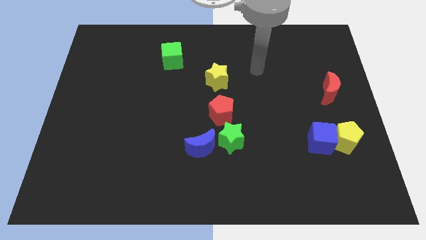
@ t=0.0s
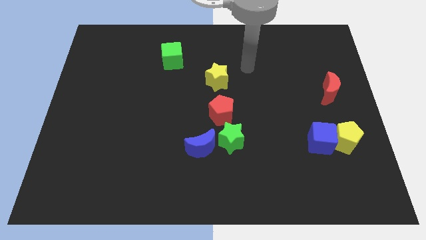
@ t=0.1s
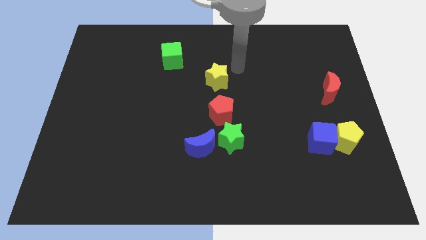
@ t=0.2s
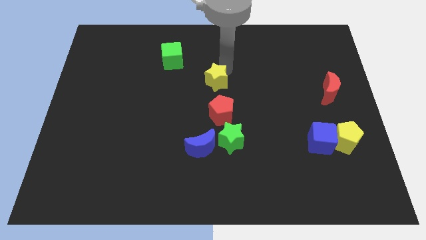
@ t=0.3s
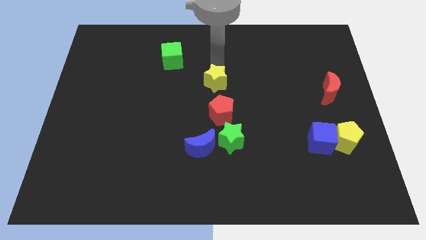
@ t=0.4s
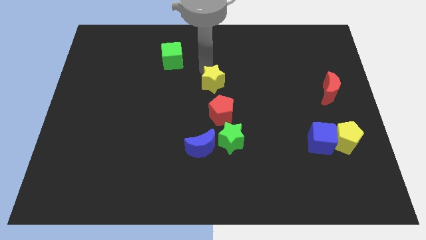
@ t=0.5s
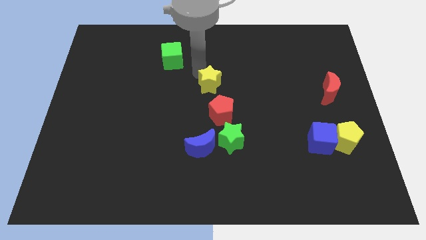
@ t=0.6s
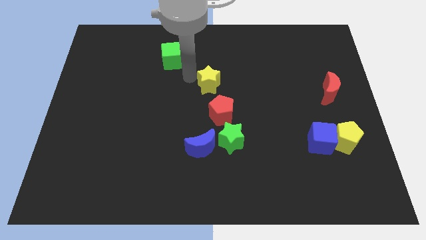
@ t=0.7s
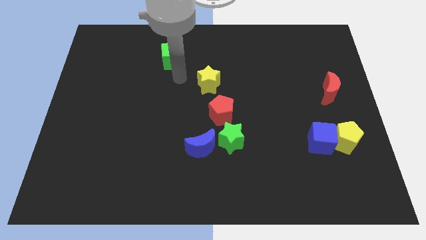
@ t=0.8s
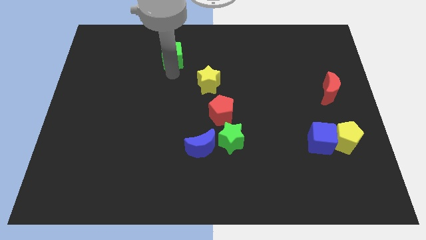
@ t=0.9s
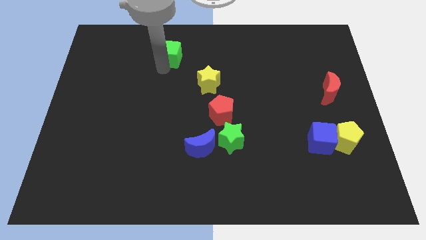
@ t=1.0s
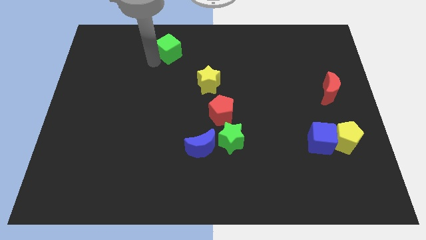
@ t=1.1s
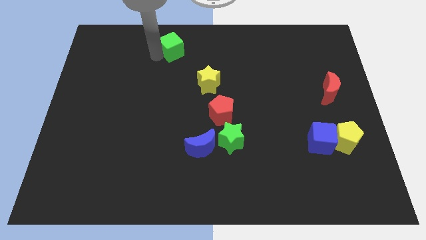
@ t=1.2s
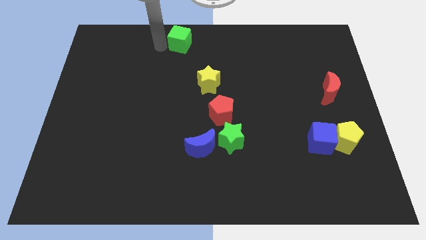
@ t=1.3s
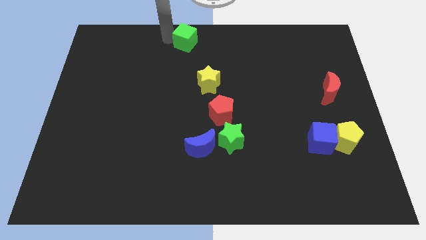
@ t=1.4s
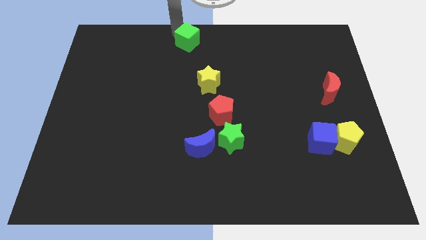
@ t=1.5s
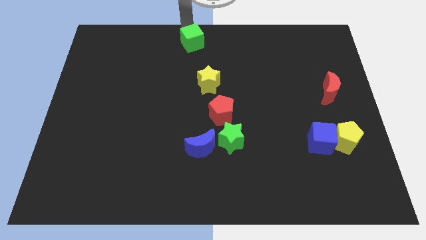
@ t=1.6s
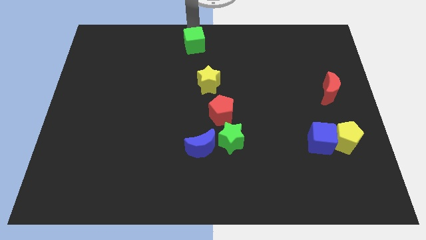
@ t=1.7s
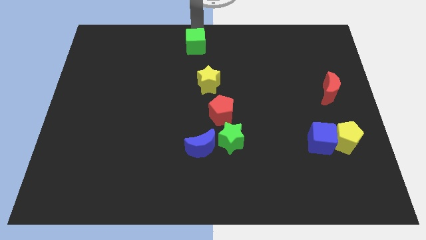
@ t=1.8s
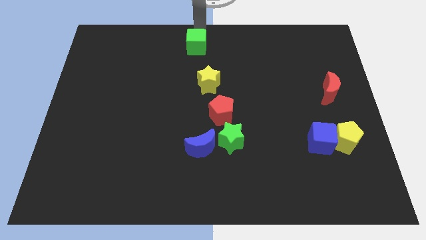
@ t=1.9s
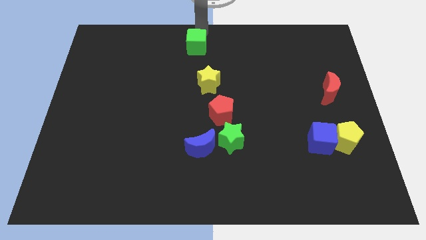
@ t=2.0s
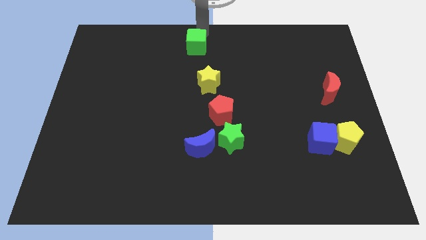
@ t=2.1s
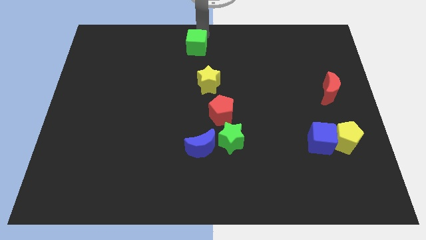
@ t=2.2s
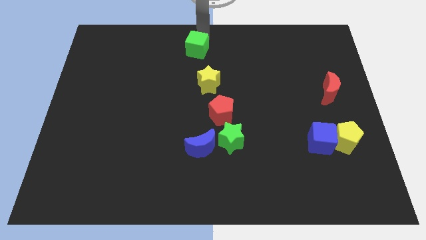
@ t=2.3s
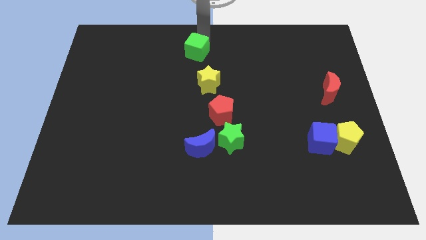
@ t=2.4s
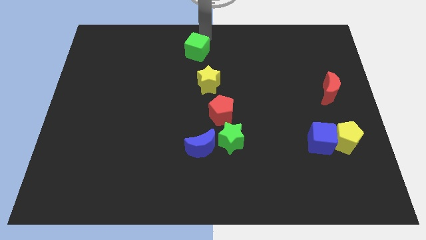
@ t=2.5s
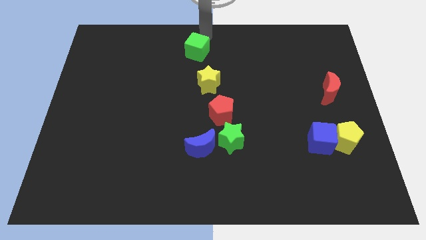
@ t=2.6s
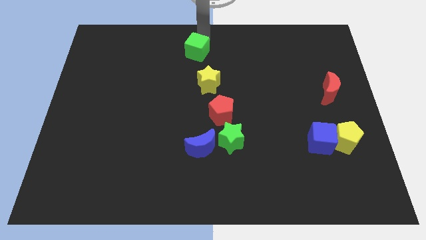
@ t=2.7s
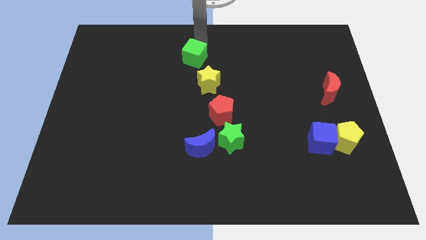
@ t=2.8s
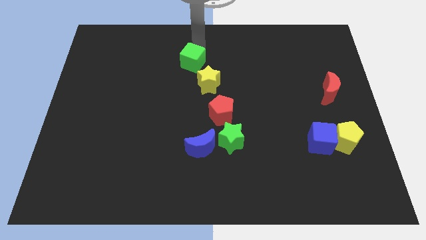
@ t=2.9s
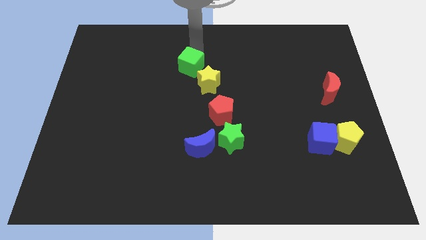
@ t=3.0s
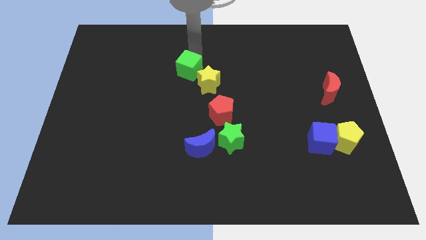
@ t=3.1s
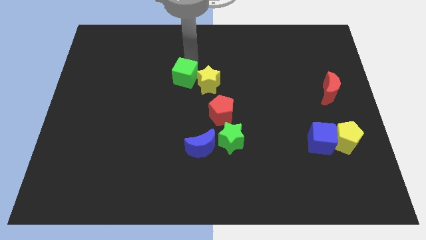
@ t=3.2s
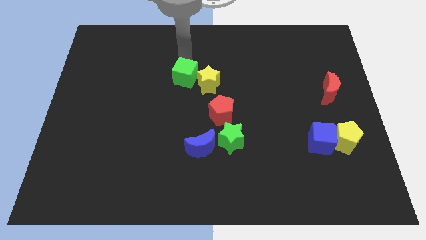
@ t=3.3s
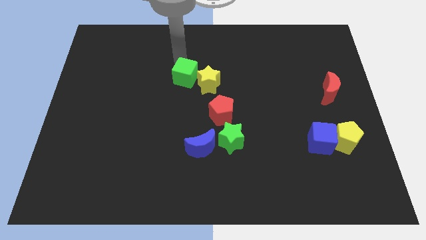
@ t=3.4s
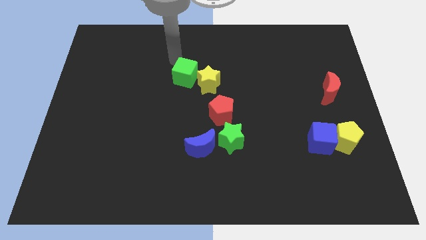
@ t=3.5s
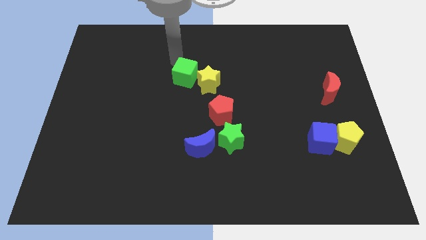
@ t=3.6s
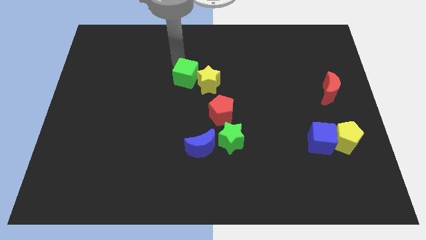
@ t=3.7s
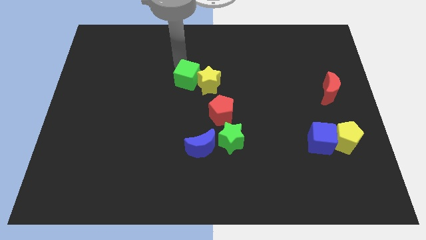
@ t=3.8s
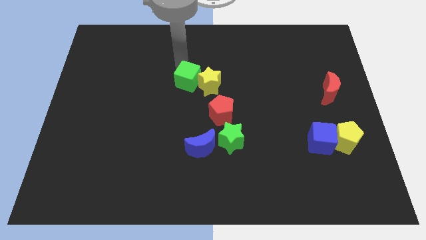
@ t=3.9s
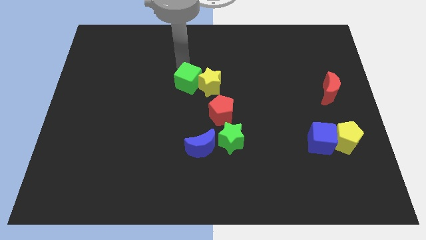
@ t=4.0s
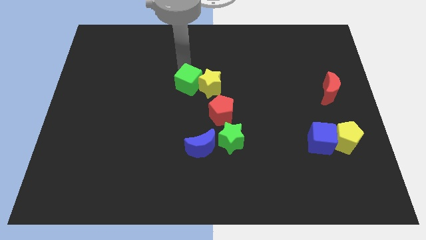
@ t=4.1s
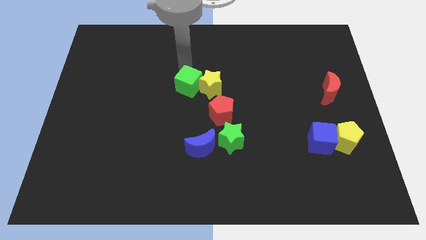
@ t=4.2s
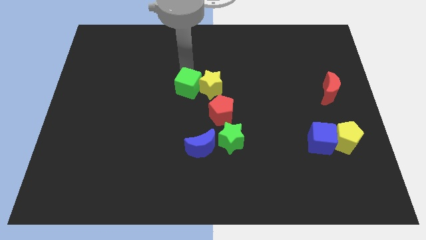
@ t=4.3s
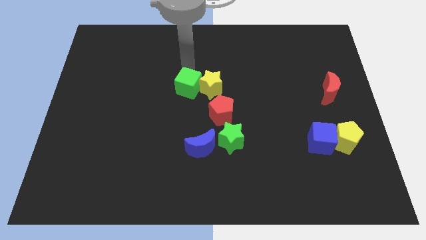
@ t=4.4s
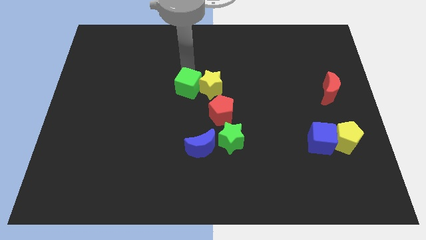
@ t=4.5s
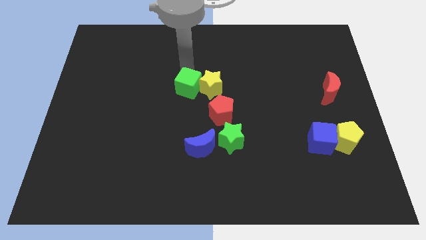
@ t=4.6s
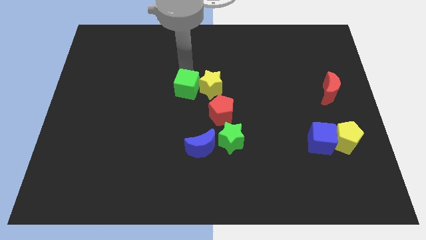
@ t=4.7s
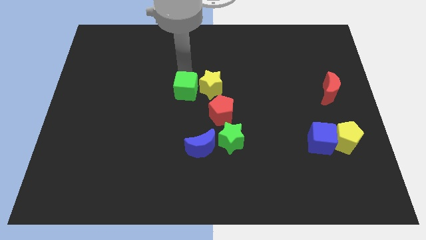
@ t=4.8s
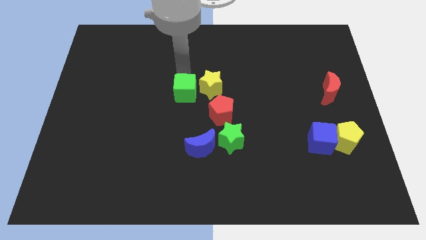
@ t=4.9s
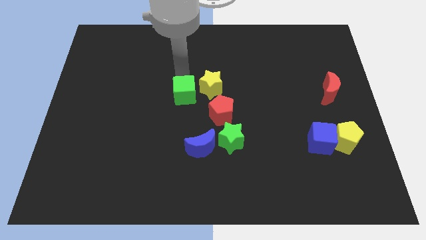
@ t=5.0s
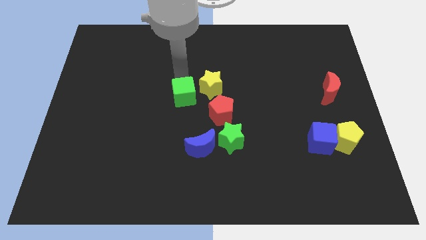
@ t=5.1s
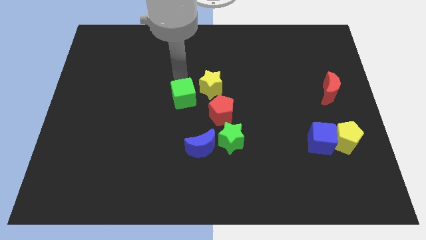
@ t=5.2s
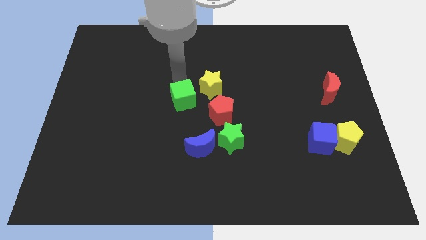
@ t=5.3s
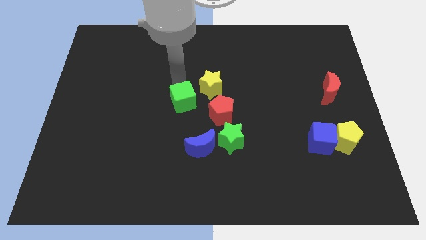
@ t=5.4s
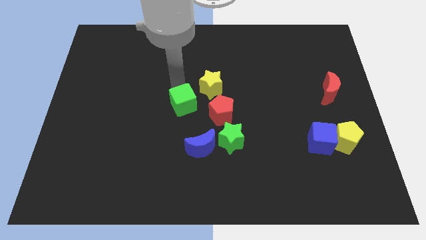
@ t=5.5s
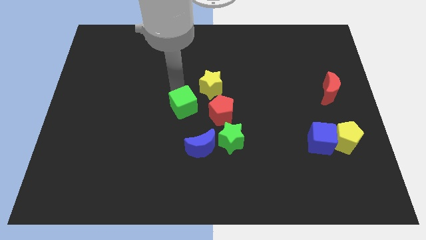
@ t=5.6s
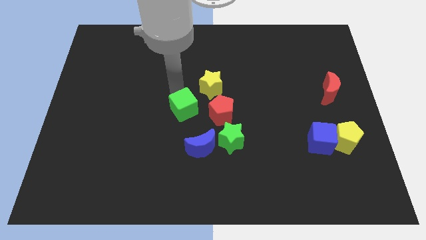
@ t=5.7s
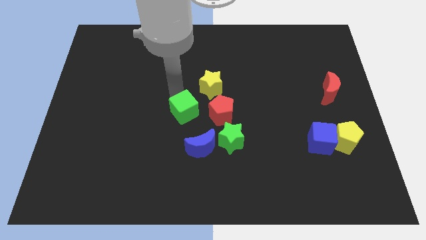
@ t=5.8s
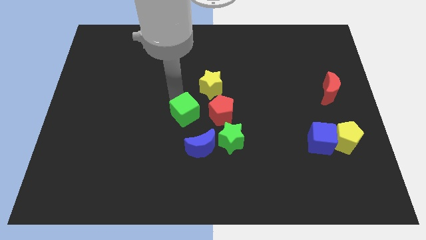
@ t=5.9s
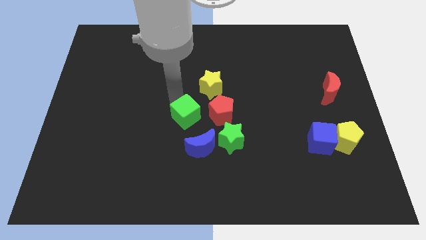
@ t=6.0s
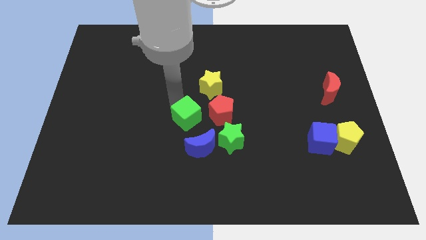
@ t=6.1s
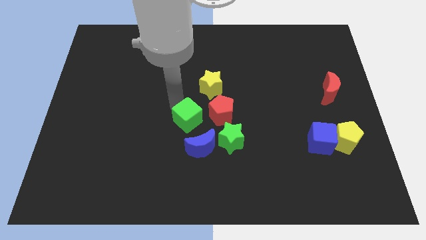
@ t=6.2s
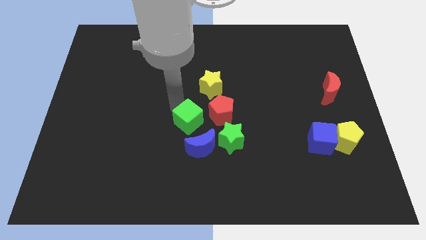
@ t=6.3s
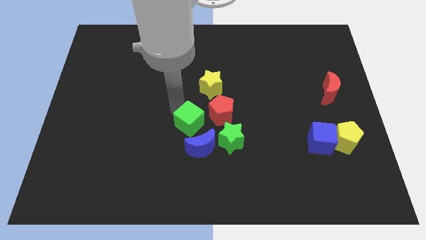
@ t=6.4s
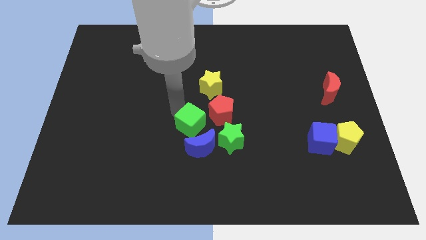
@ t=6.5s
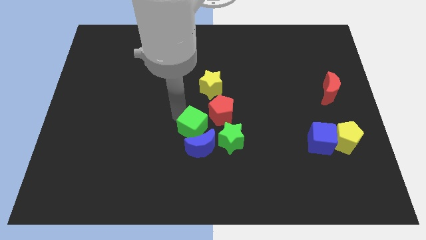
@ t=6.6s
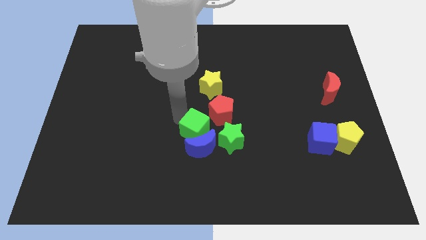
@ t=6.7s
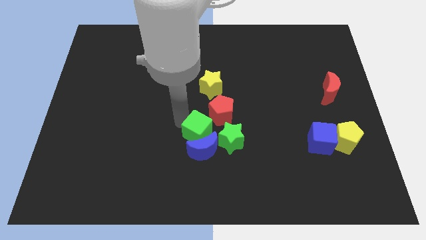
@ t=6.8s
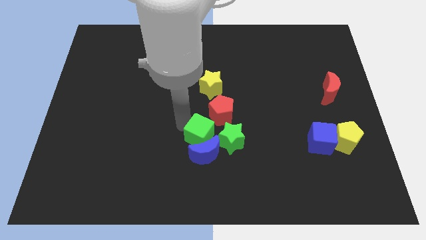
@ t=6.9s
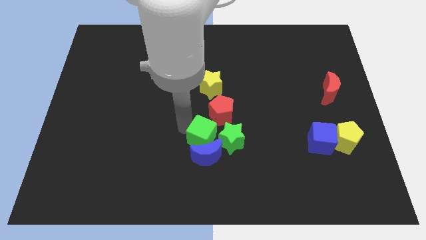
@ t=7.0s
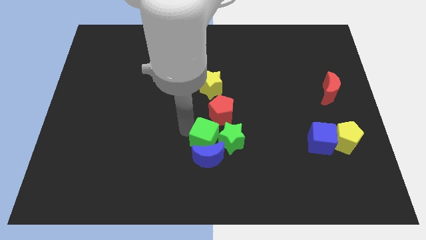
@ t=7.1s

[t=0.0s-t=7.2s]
slide the green cube close to the green star
